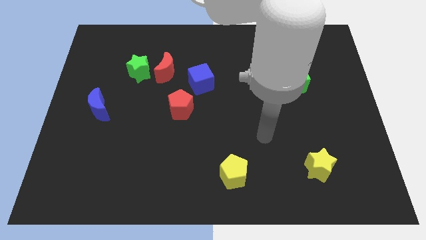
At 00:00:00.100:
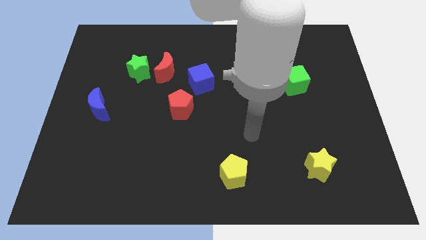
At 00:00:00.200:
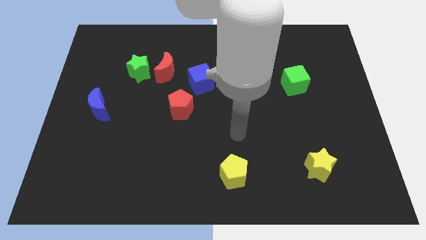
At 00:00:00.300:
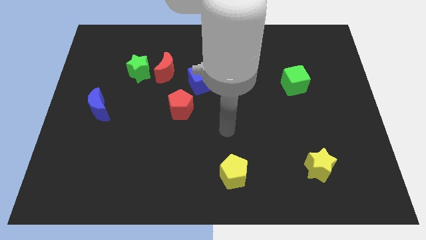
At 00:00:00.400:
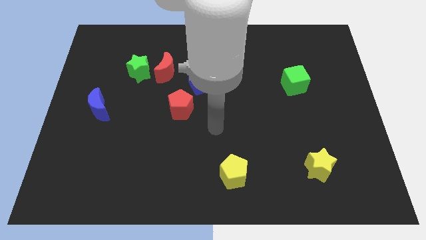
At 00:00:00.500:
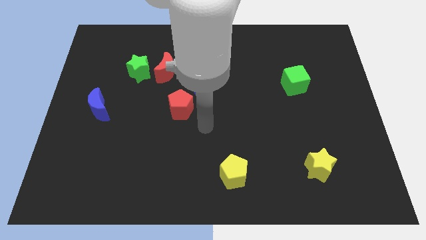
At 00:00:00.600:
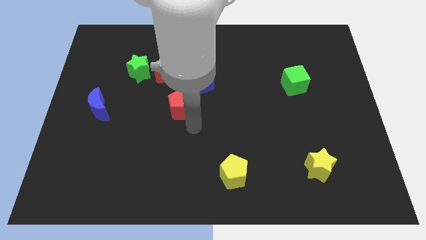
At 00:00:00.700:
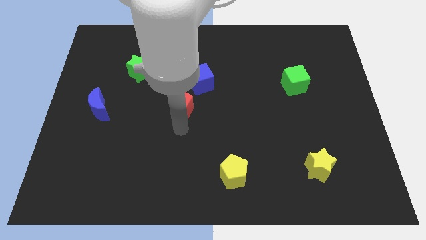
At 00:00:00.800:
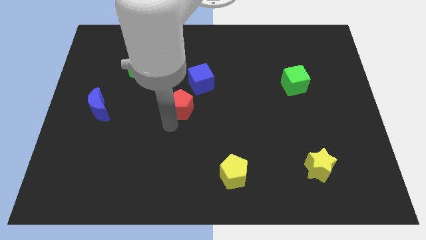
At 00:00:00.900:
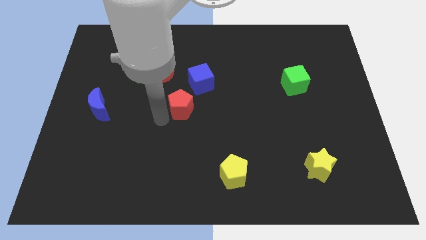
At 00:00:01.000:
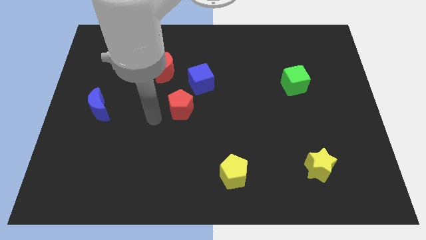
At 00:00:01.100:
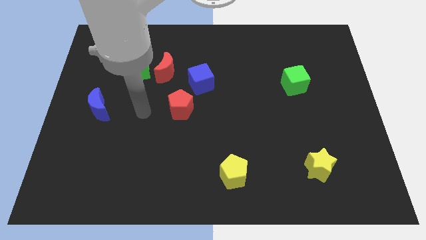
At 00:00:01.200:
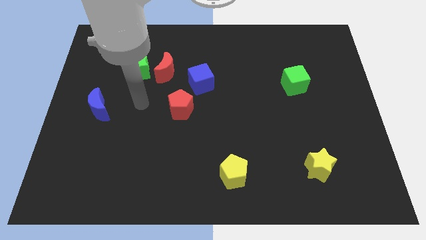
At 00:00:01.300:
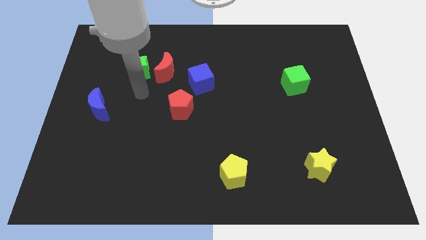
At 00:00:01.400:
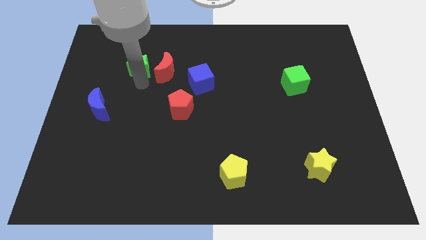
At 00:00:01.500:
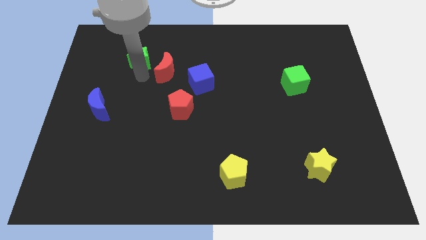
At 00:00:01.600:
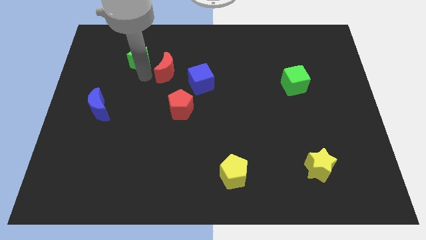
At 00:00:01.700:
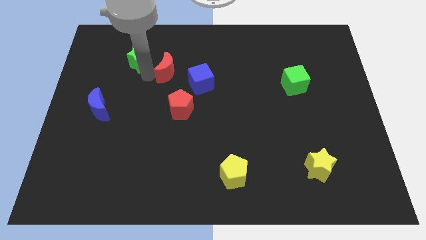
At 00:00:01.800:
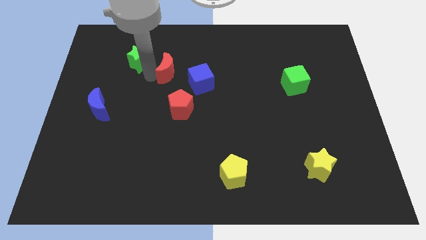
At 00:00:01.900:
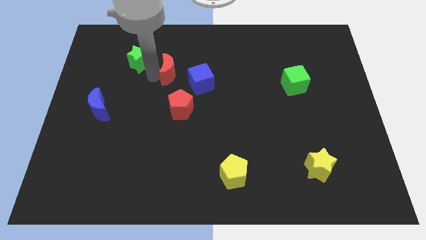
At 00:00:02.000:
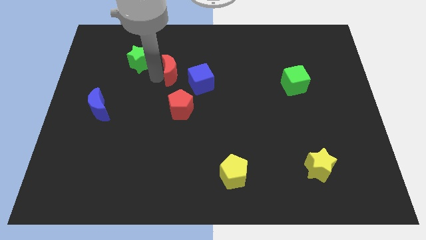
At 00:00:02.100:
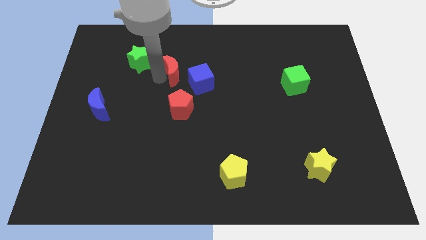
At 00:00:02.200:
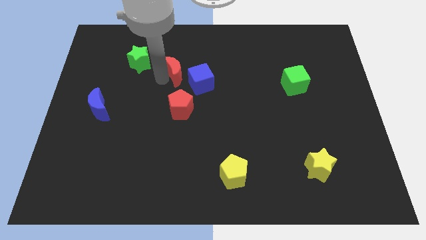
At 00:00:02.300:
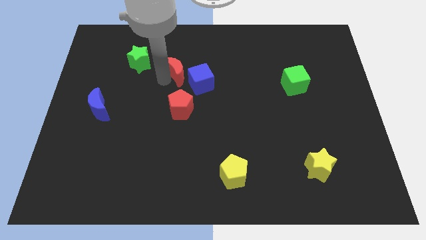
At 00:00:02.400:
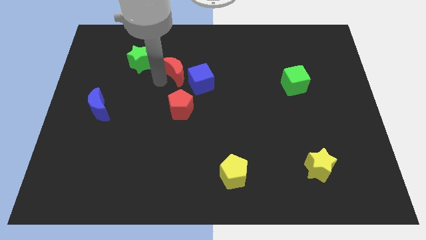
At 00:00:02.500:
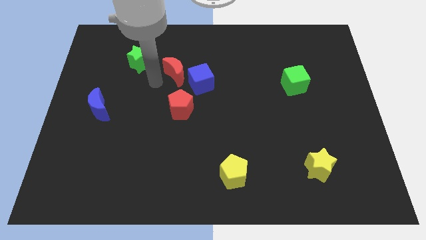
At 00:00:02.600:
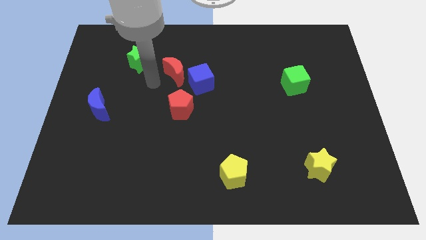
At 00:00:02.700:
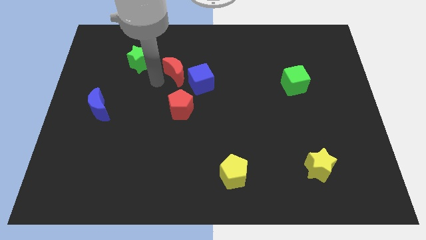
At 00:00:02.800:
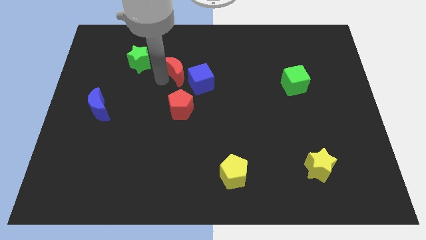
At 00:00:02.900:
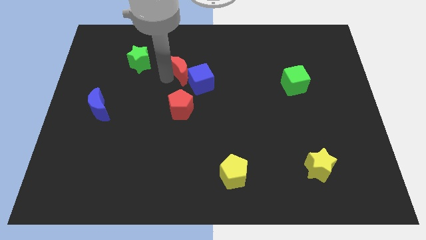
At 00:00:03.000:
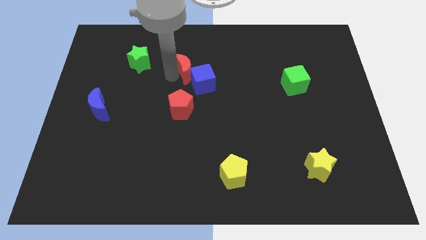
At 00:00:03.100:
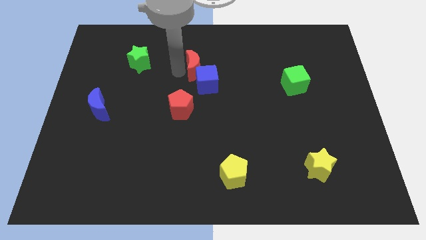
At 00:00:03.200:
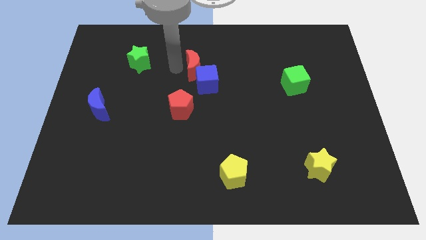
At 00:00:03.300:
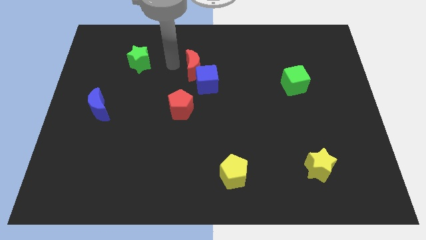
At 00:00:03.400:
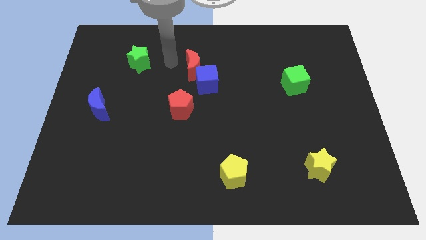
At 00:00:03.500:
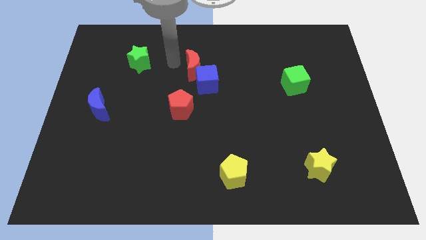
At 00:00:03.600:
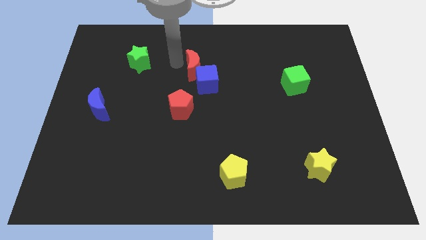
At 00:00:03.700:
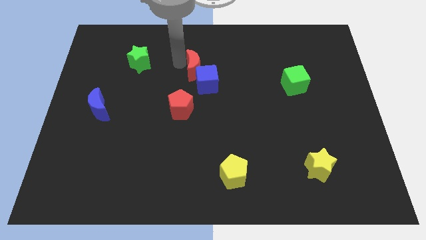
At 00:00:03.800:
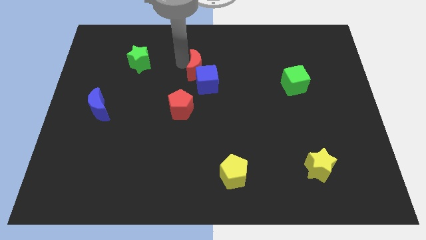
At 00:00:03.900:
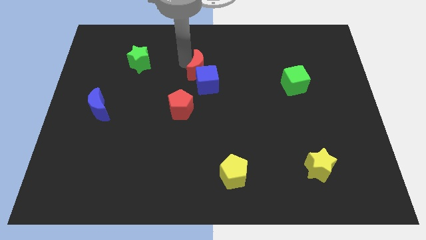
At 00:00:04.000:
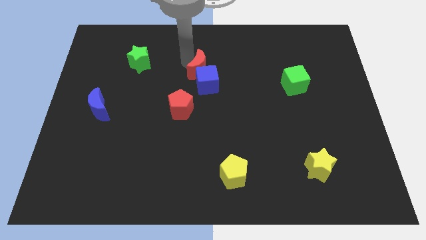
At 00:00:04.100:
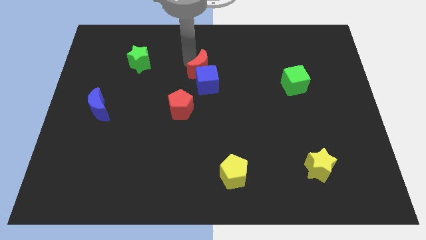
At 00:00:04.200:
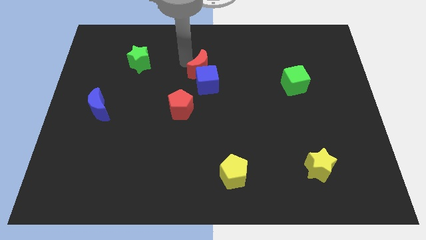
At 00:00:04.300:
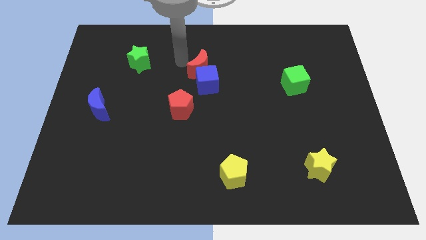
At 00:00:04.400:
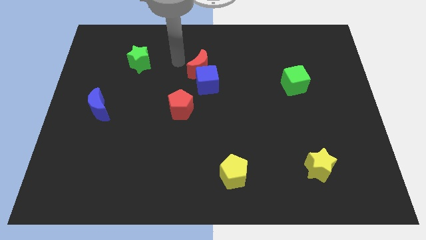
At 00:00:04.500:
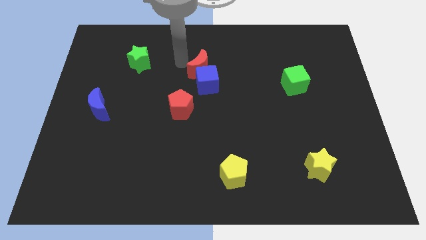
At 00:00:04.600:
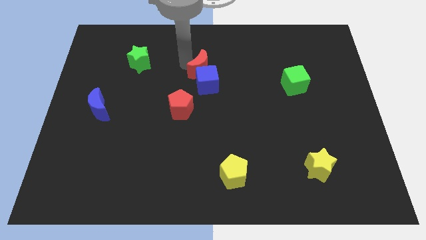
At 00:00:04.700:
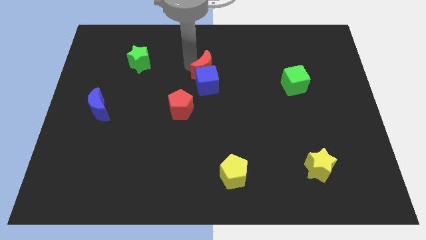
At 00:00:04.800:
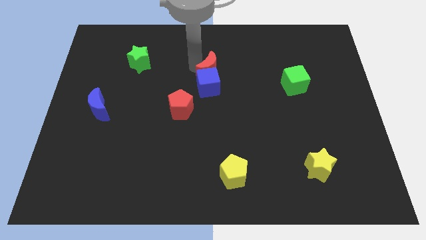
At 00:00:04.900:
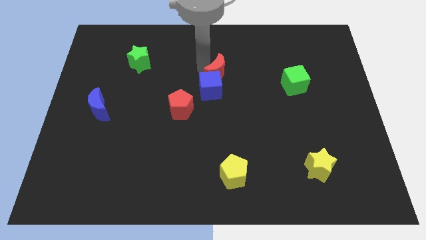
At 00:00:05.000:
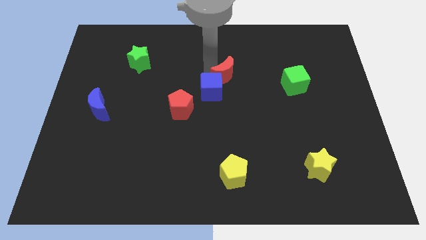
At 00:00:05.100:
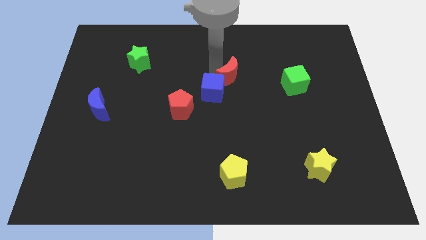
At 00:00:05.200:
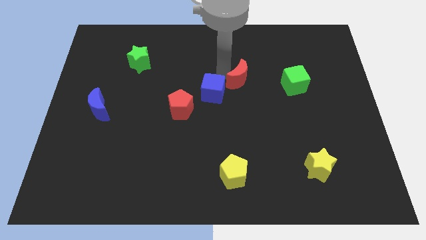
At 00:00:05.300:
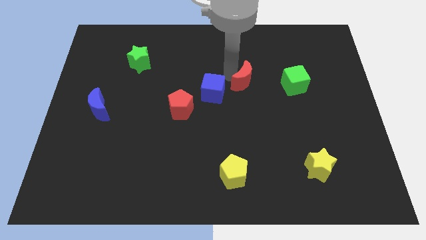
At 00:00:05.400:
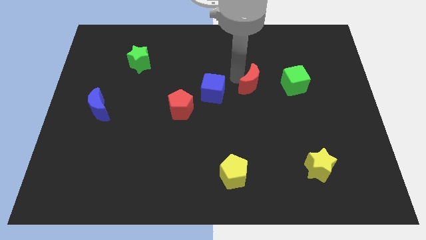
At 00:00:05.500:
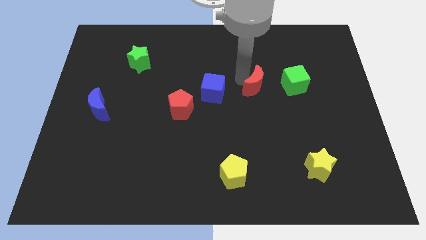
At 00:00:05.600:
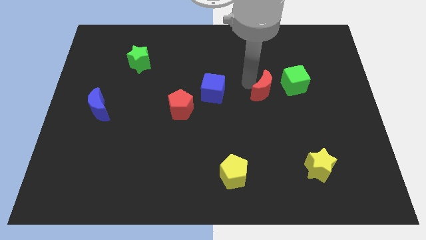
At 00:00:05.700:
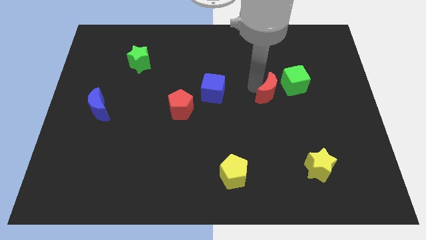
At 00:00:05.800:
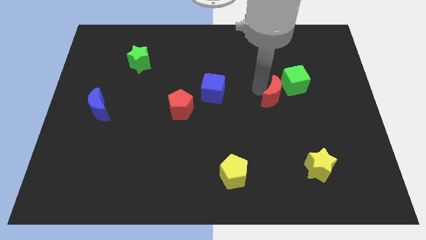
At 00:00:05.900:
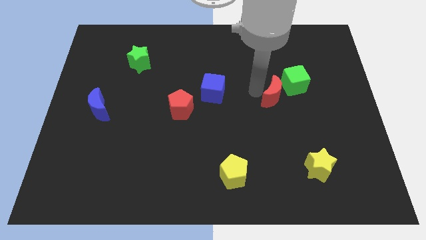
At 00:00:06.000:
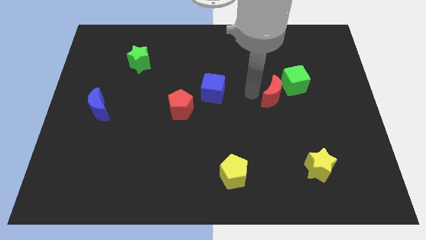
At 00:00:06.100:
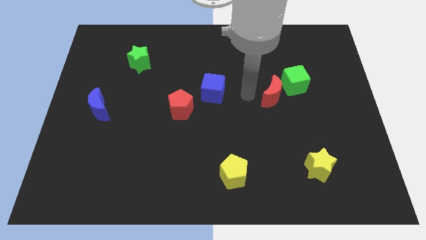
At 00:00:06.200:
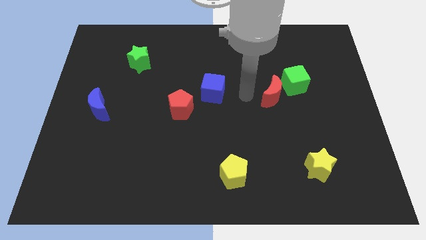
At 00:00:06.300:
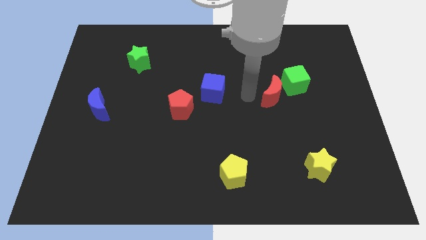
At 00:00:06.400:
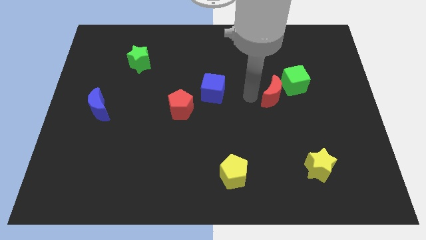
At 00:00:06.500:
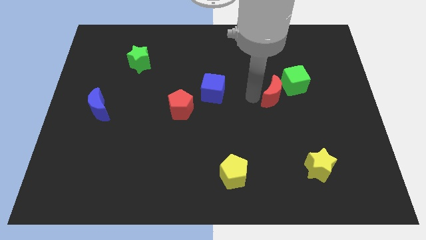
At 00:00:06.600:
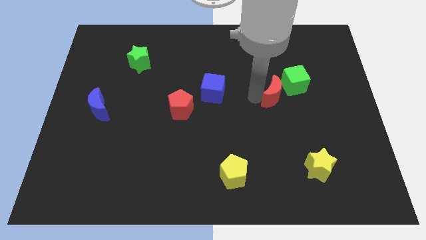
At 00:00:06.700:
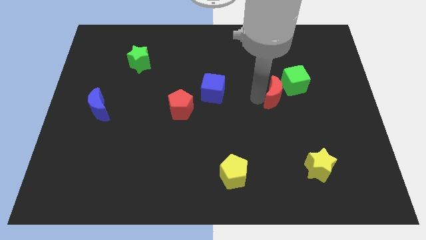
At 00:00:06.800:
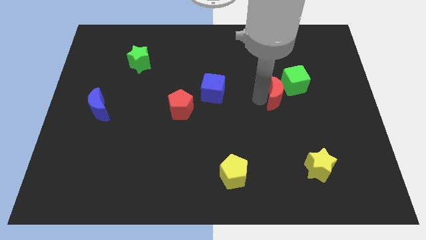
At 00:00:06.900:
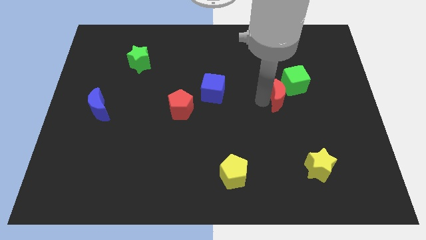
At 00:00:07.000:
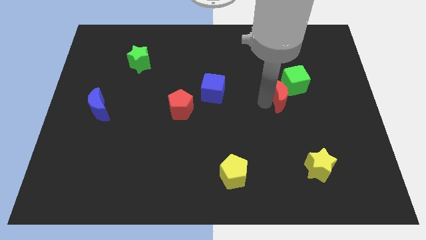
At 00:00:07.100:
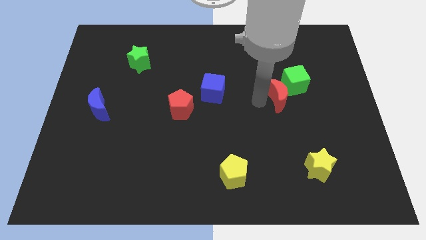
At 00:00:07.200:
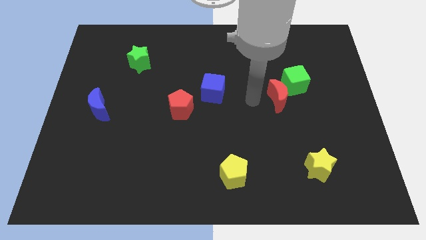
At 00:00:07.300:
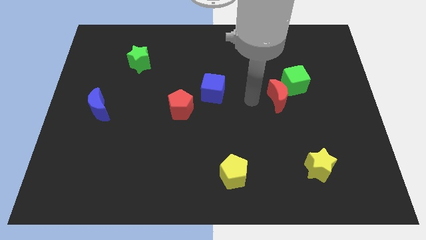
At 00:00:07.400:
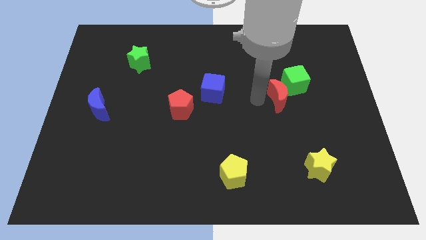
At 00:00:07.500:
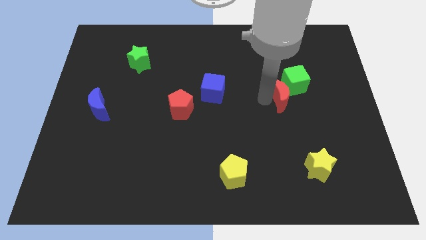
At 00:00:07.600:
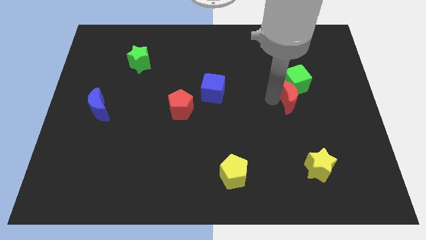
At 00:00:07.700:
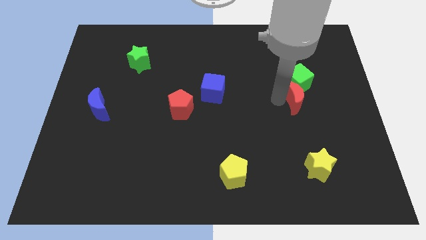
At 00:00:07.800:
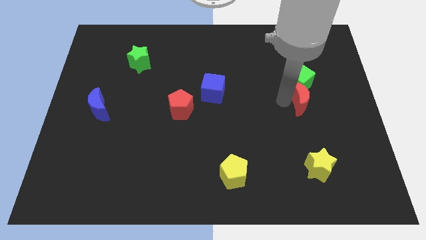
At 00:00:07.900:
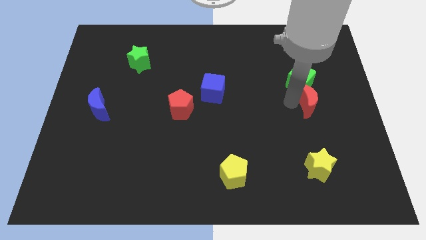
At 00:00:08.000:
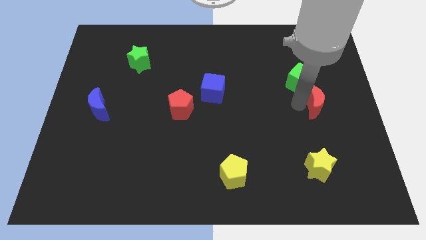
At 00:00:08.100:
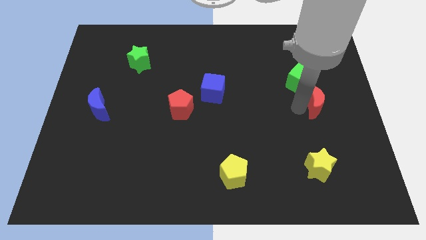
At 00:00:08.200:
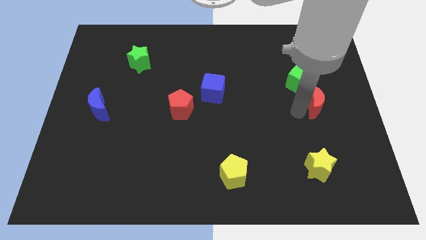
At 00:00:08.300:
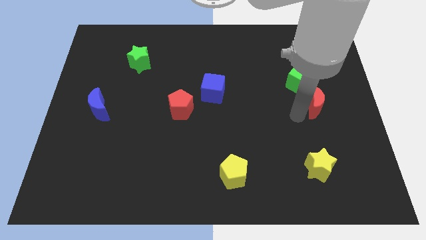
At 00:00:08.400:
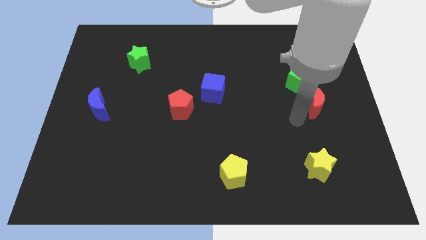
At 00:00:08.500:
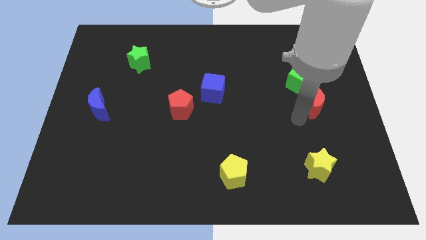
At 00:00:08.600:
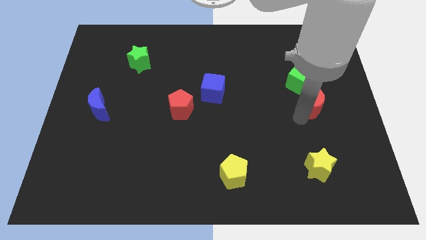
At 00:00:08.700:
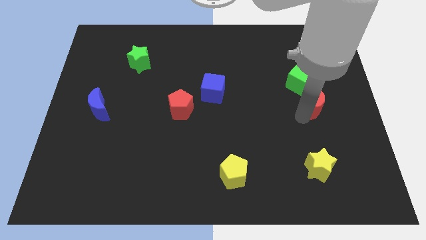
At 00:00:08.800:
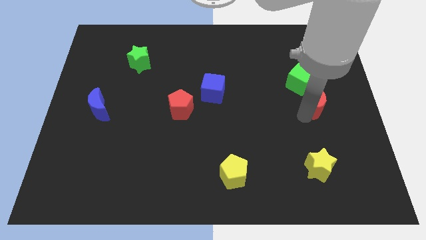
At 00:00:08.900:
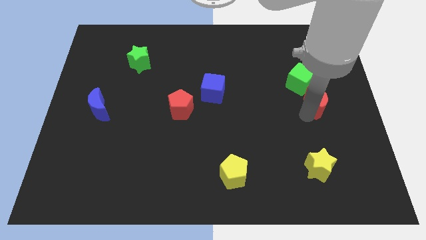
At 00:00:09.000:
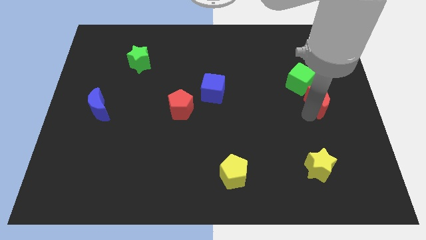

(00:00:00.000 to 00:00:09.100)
move the red moon to the right side of the board
